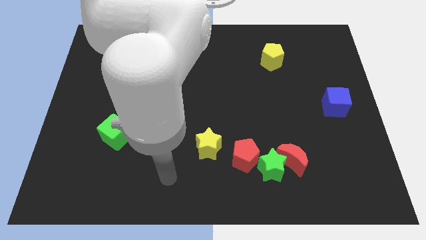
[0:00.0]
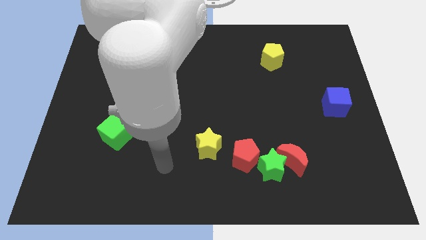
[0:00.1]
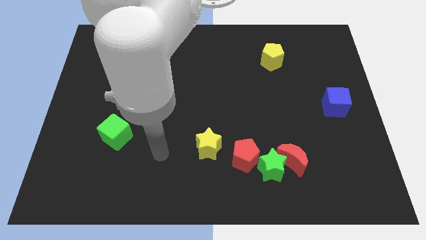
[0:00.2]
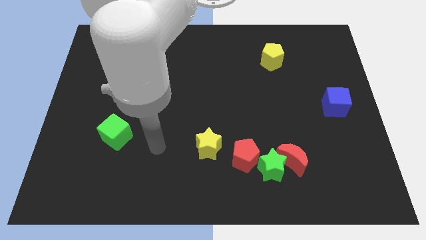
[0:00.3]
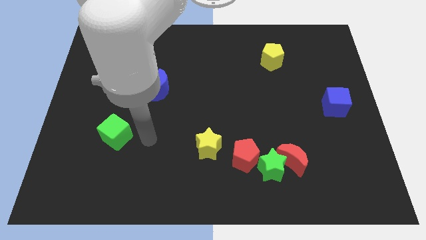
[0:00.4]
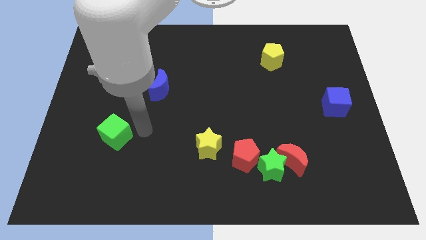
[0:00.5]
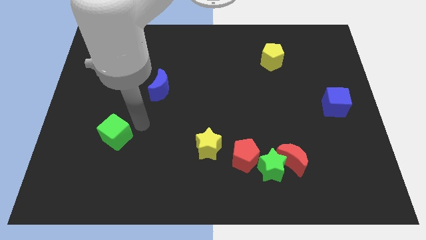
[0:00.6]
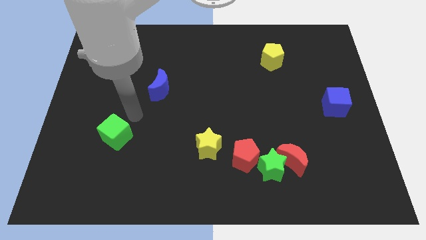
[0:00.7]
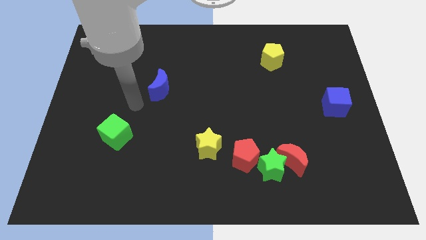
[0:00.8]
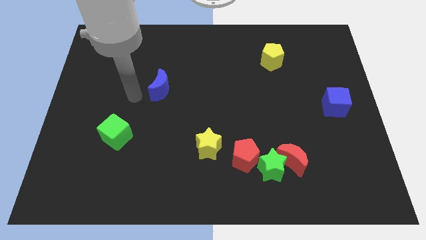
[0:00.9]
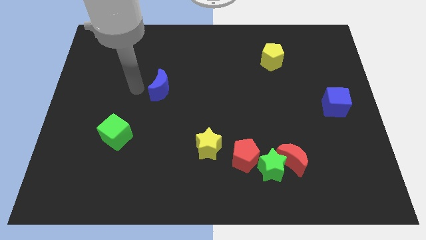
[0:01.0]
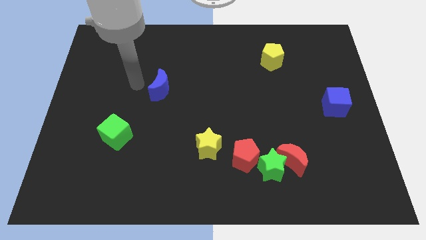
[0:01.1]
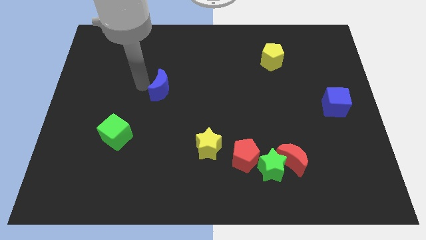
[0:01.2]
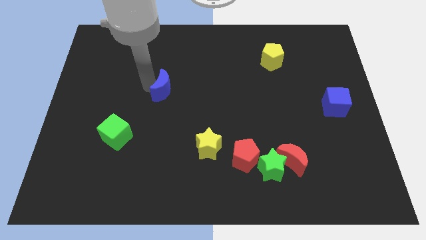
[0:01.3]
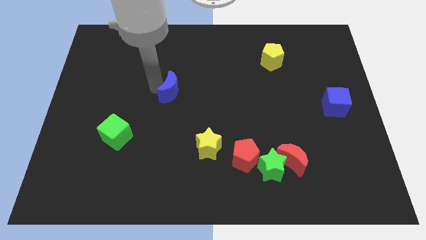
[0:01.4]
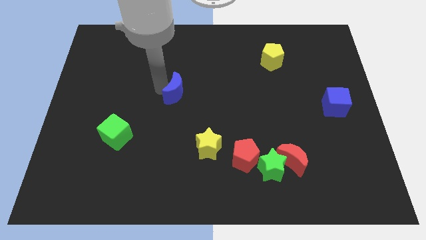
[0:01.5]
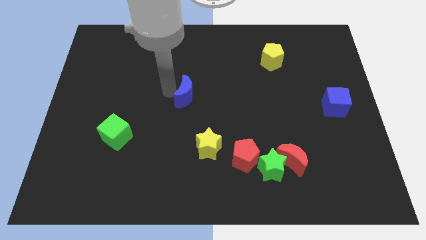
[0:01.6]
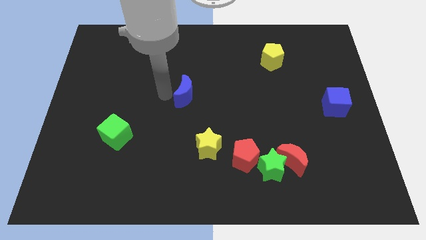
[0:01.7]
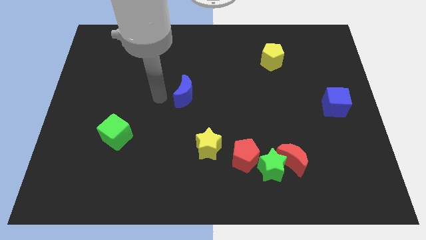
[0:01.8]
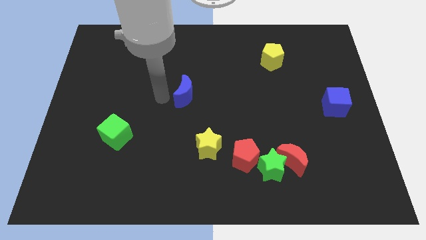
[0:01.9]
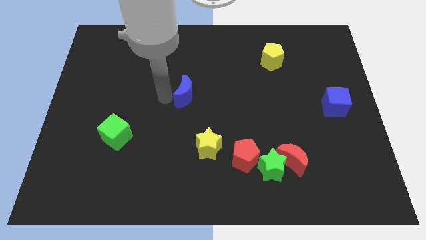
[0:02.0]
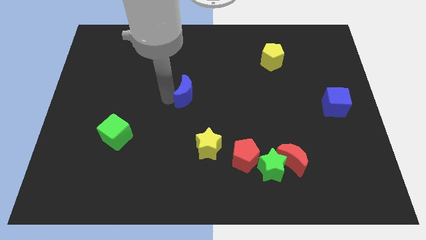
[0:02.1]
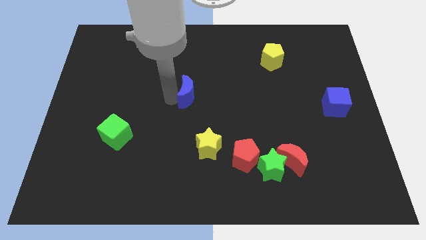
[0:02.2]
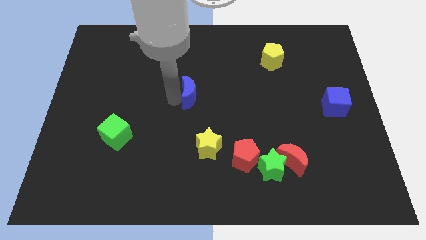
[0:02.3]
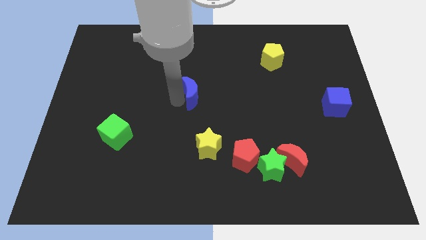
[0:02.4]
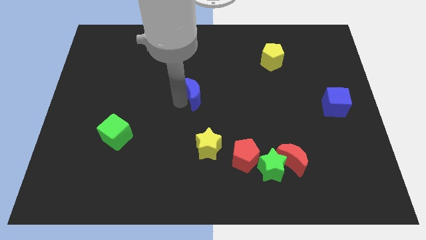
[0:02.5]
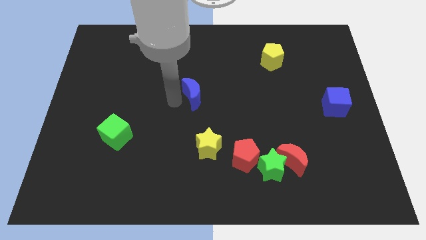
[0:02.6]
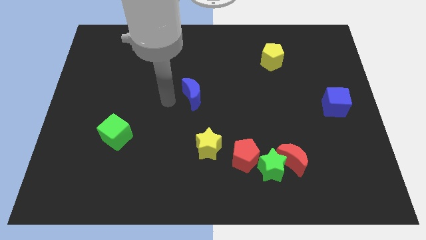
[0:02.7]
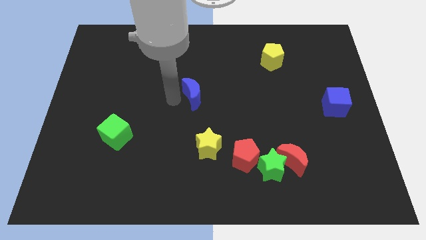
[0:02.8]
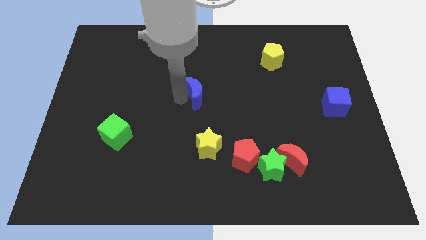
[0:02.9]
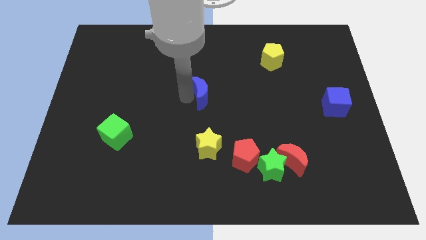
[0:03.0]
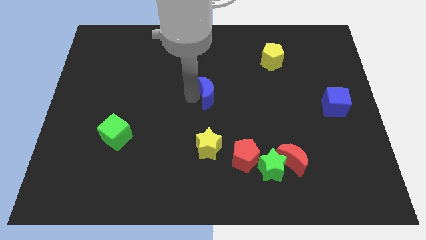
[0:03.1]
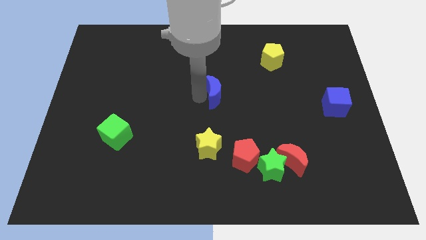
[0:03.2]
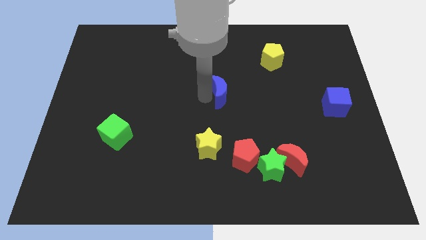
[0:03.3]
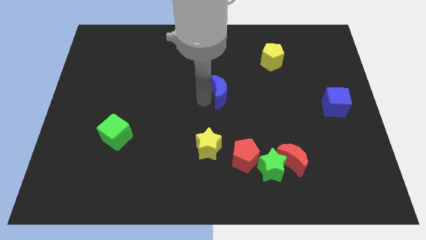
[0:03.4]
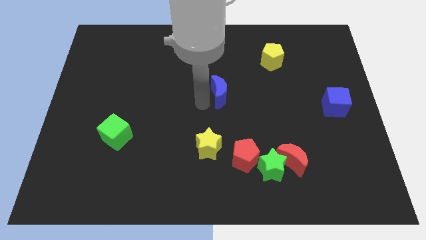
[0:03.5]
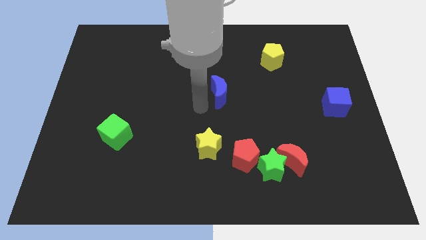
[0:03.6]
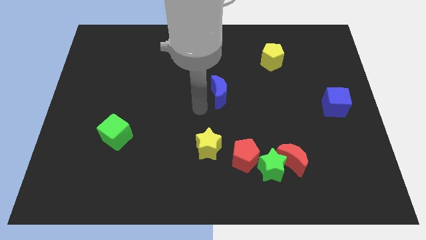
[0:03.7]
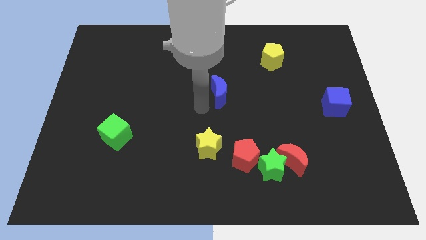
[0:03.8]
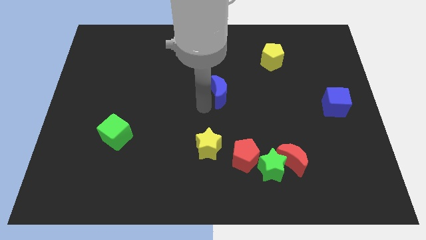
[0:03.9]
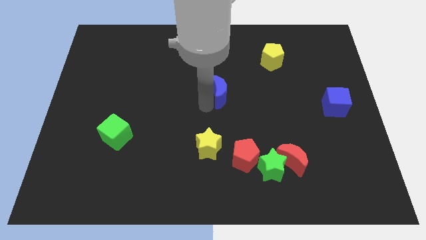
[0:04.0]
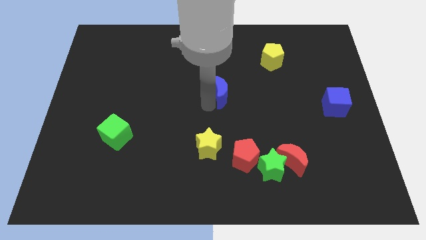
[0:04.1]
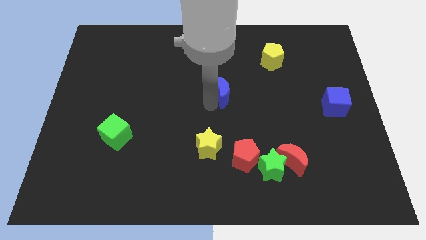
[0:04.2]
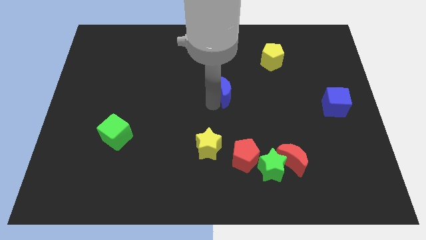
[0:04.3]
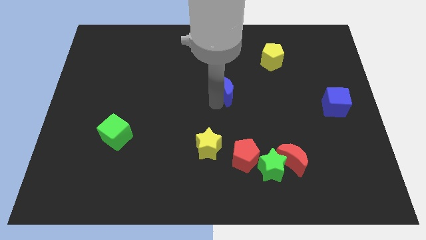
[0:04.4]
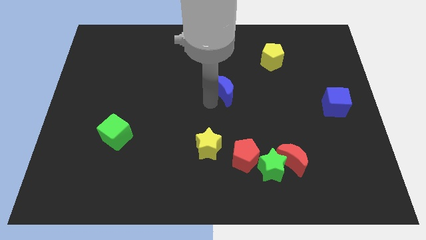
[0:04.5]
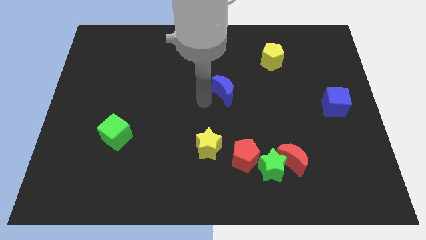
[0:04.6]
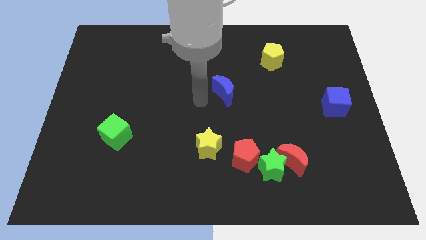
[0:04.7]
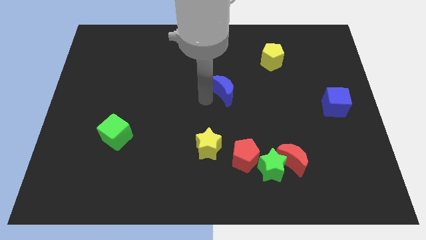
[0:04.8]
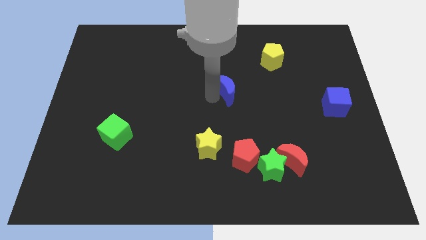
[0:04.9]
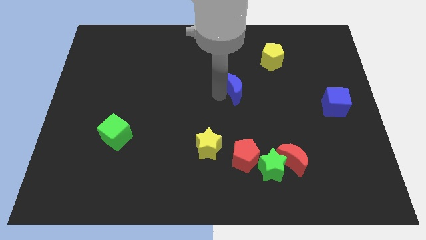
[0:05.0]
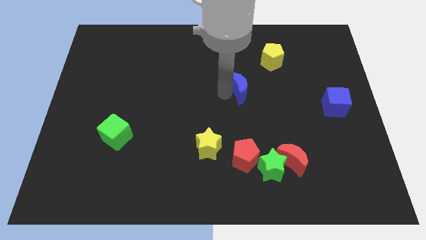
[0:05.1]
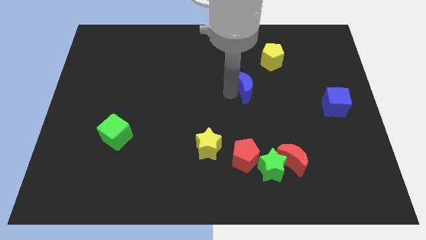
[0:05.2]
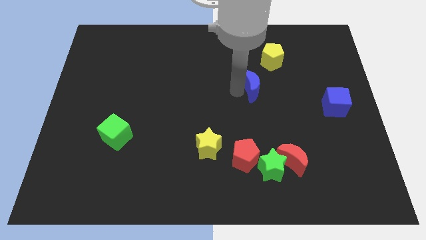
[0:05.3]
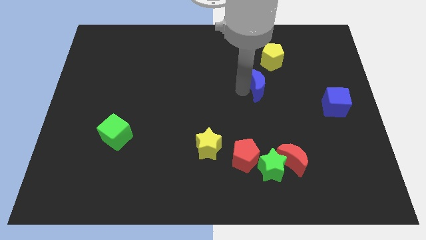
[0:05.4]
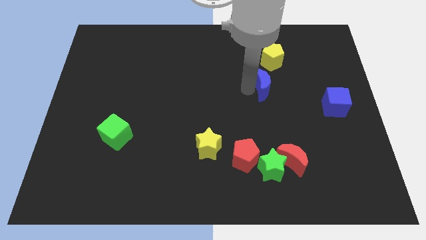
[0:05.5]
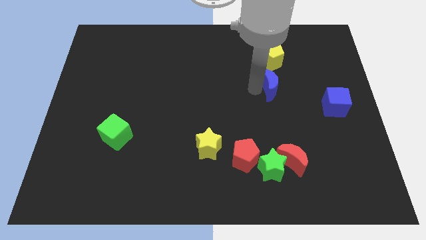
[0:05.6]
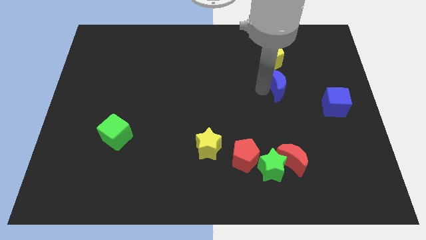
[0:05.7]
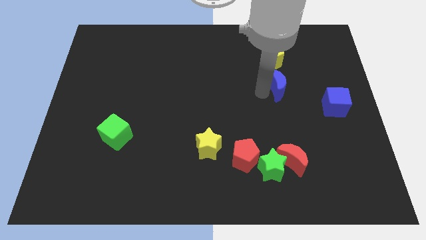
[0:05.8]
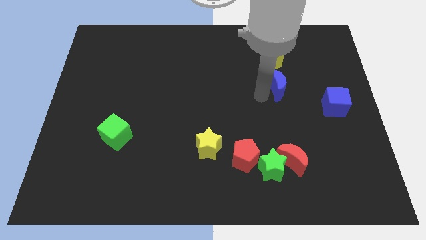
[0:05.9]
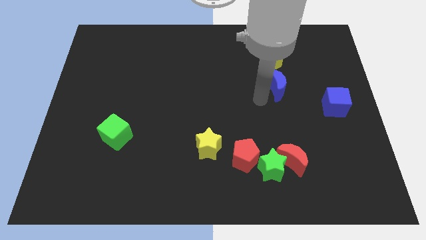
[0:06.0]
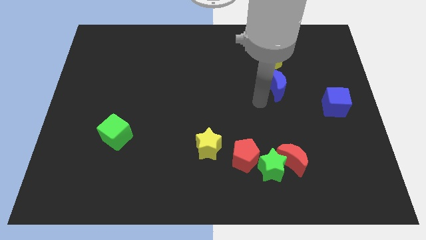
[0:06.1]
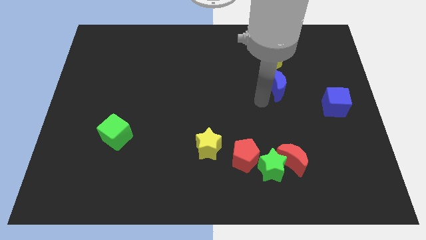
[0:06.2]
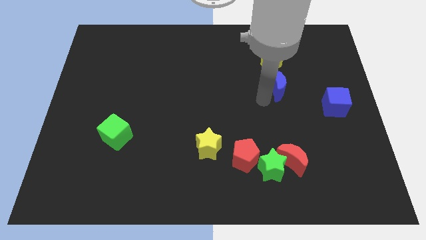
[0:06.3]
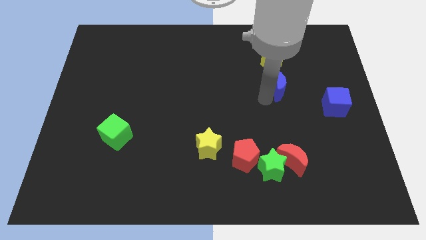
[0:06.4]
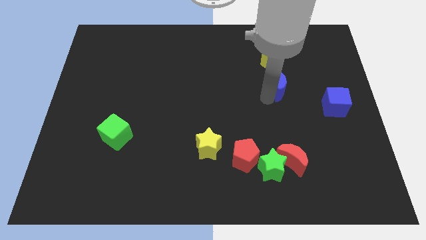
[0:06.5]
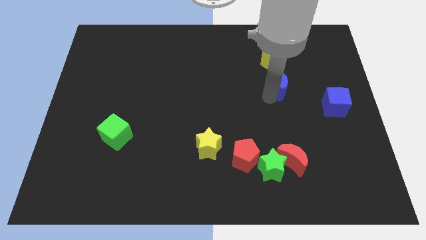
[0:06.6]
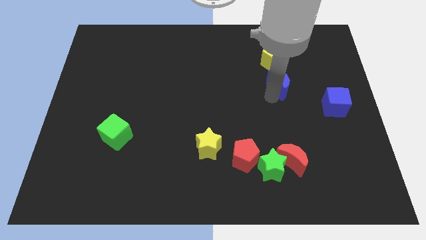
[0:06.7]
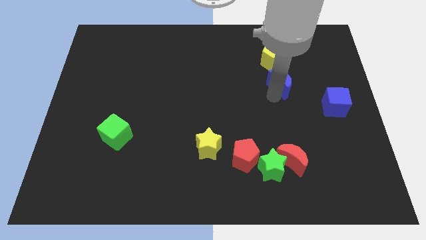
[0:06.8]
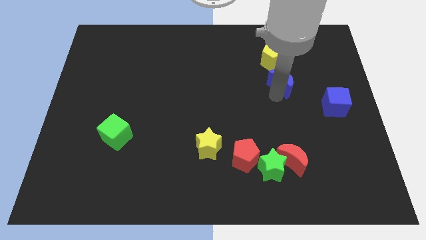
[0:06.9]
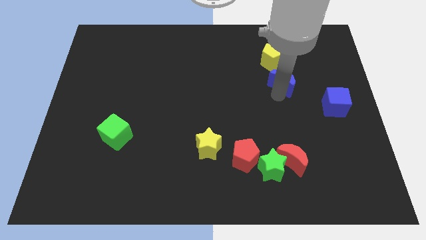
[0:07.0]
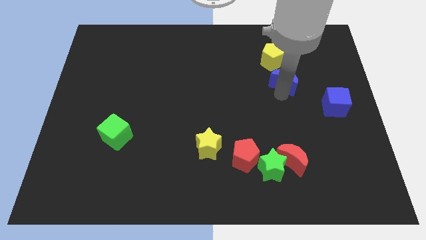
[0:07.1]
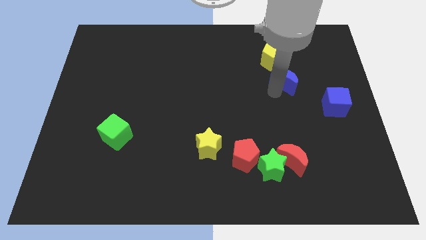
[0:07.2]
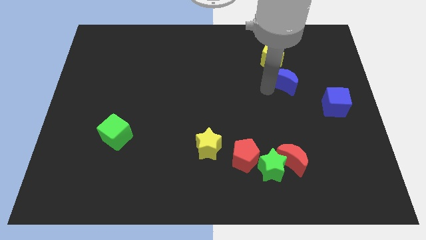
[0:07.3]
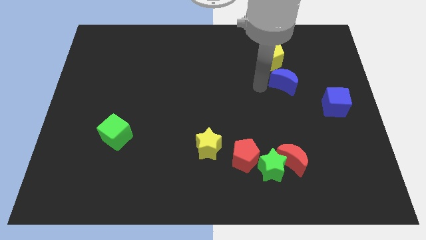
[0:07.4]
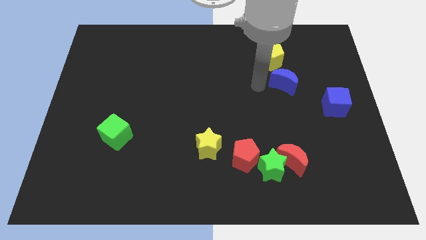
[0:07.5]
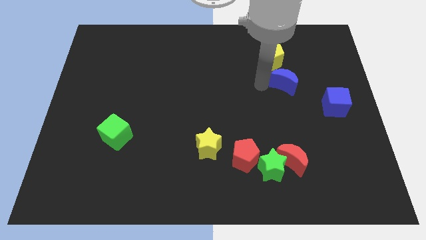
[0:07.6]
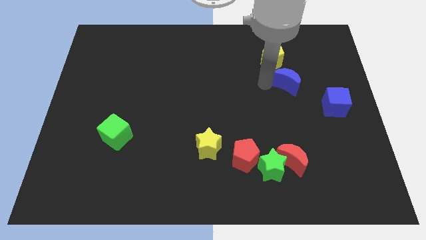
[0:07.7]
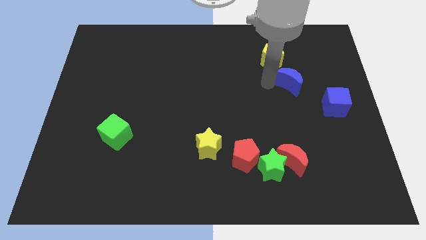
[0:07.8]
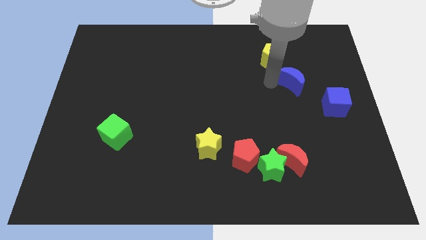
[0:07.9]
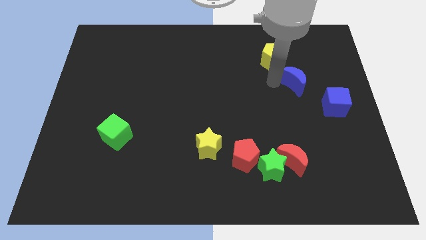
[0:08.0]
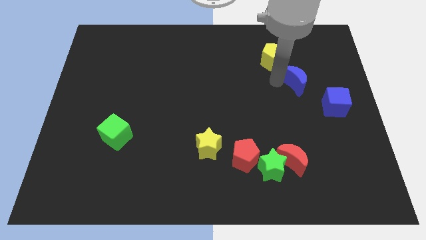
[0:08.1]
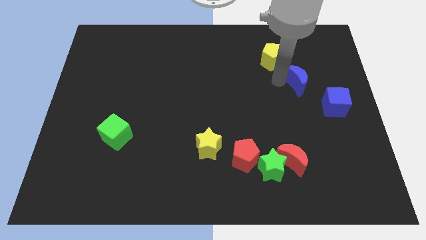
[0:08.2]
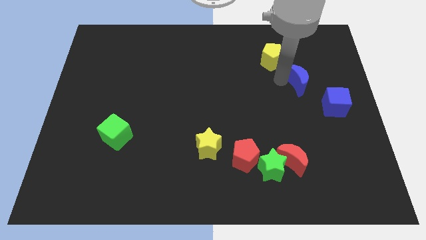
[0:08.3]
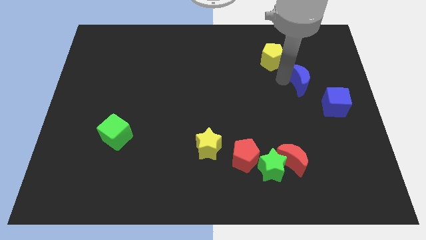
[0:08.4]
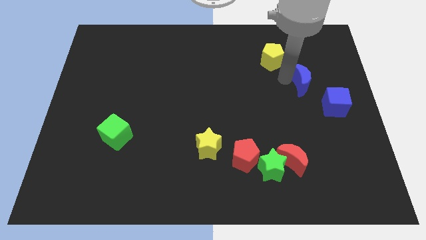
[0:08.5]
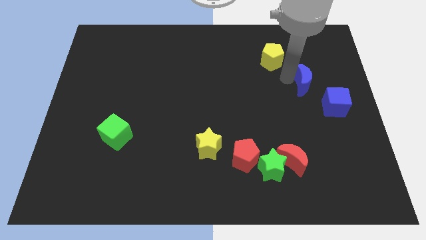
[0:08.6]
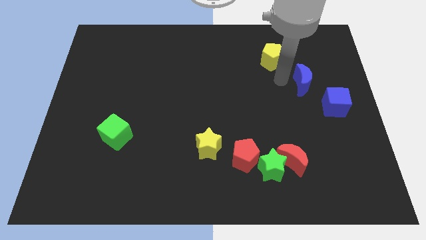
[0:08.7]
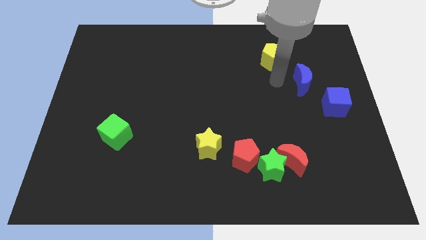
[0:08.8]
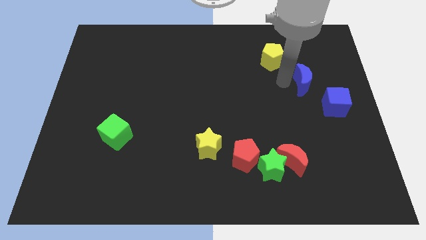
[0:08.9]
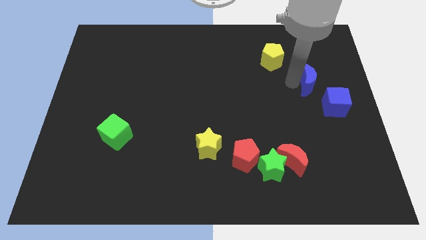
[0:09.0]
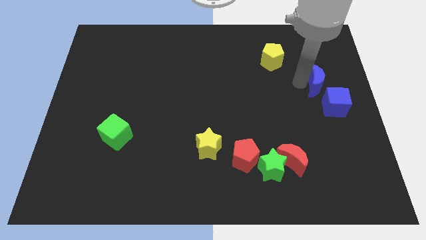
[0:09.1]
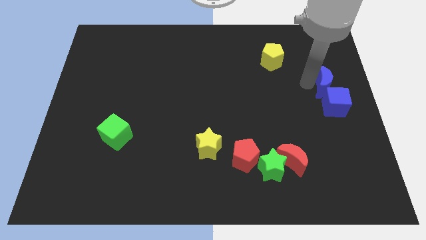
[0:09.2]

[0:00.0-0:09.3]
slide the blue moon to the right side of the board
